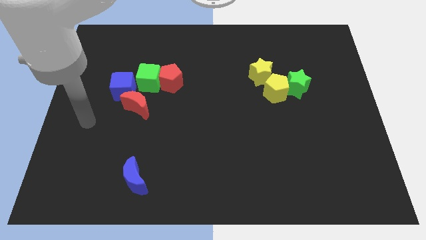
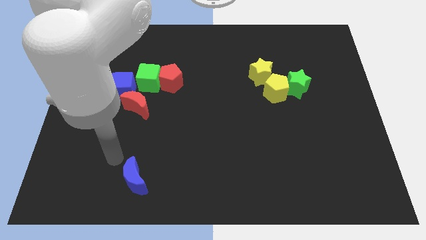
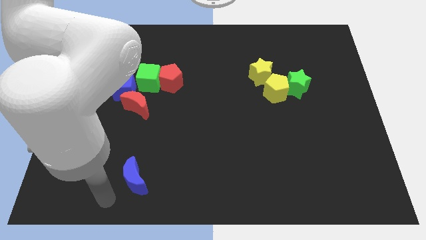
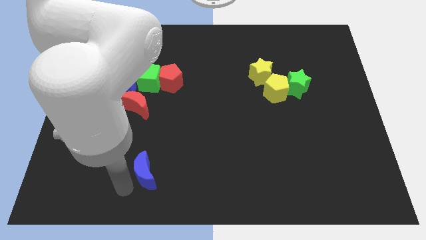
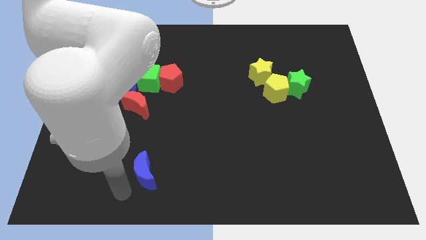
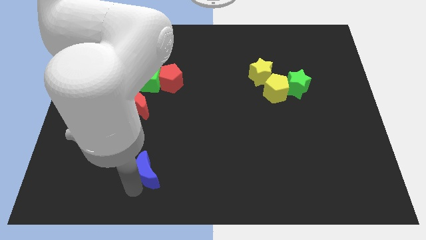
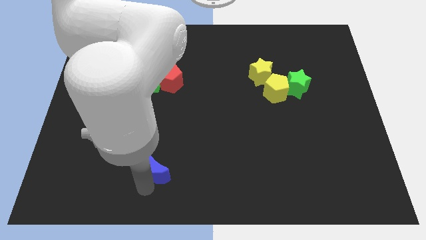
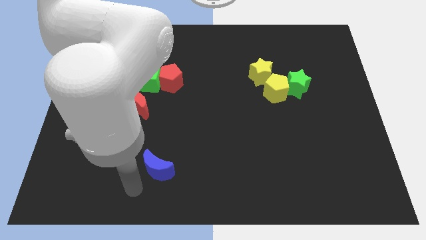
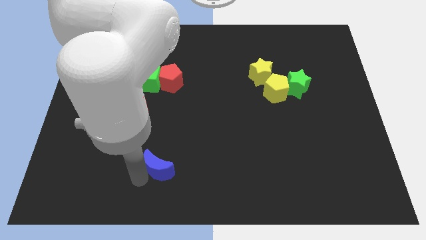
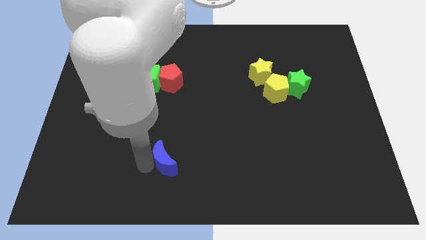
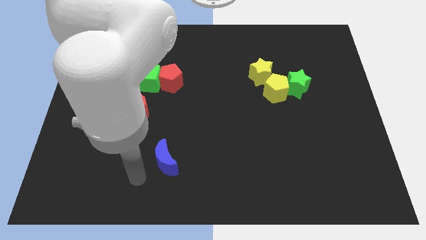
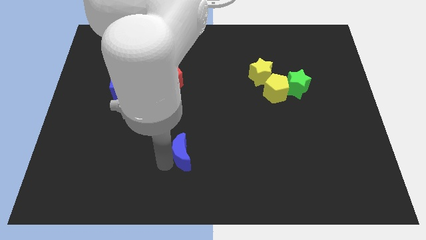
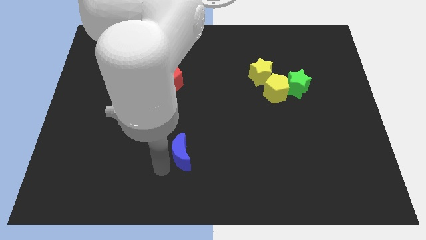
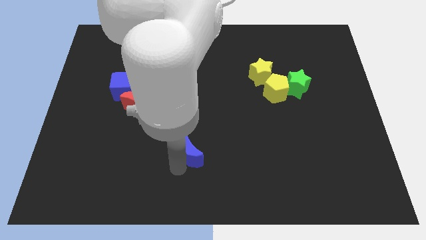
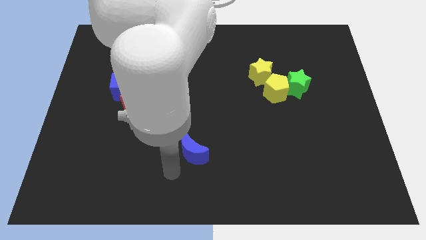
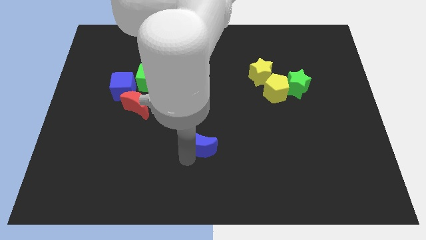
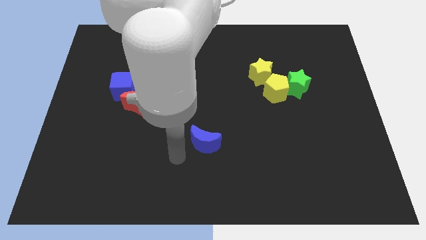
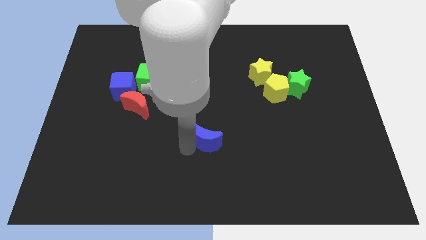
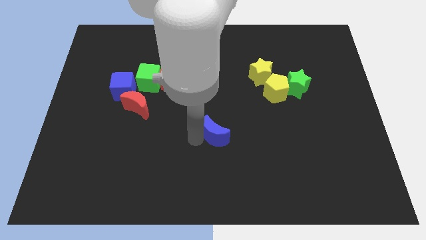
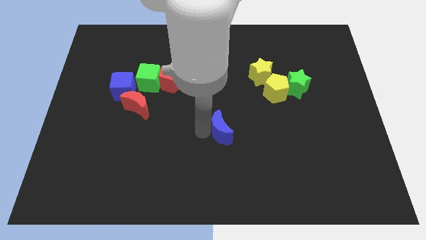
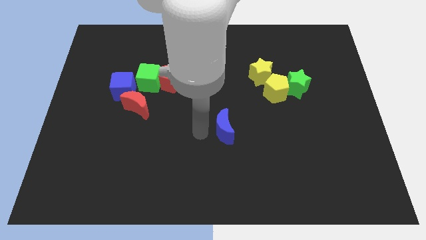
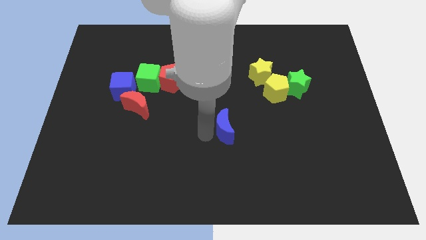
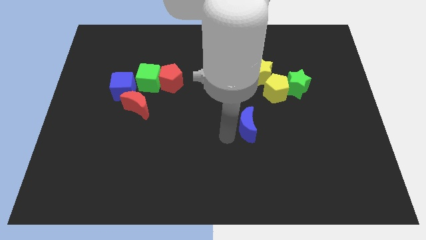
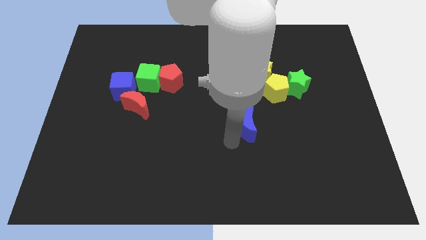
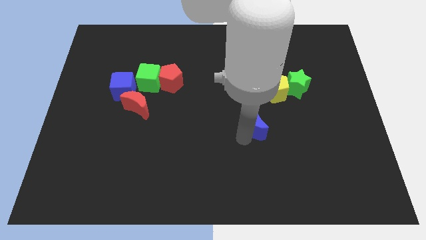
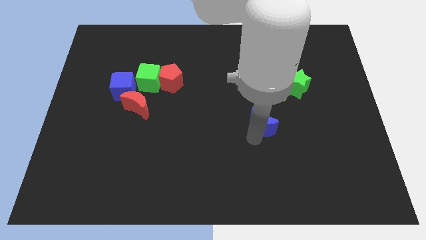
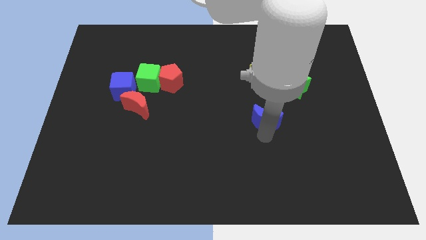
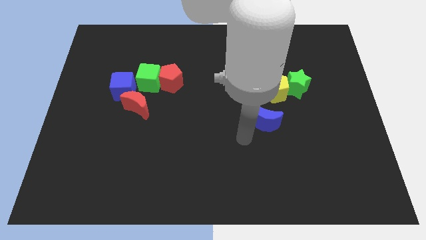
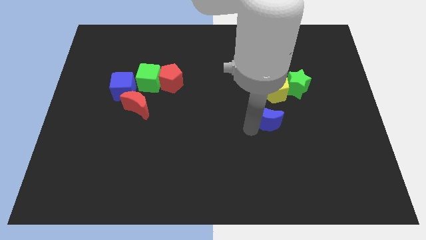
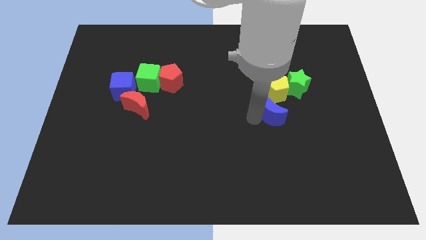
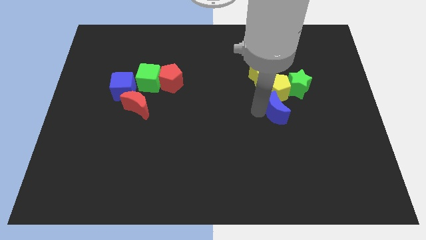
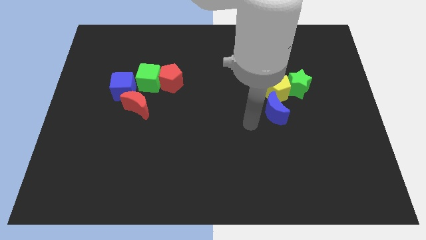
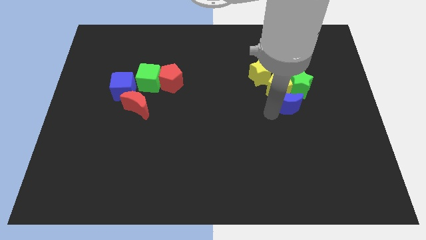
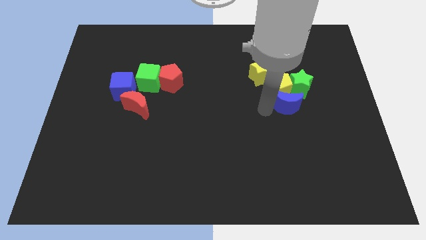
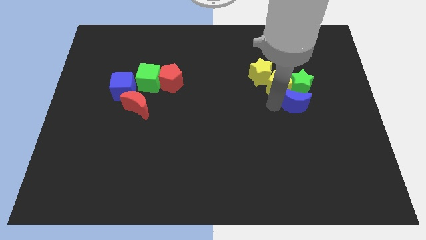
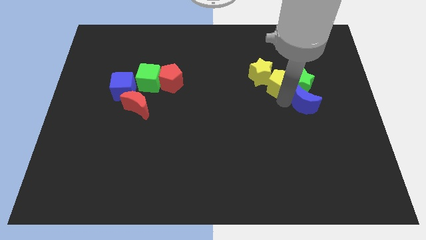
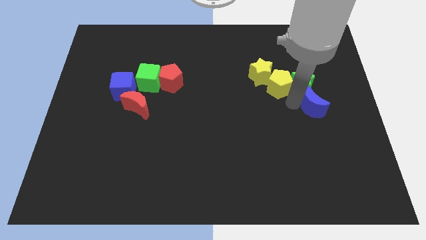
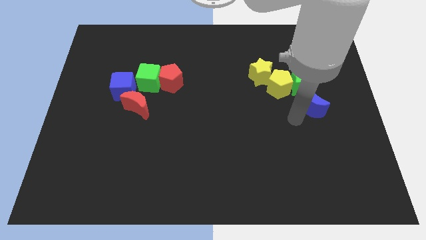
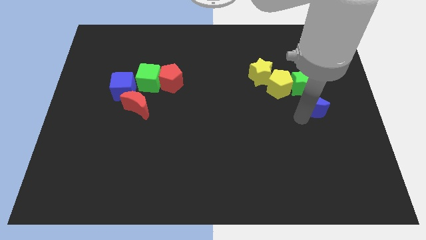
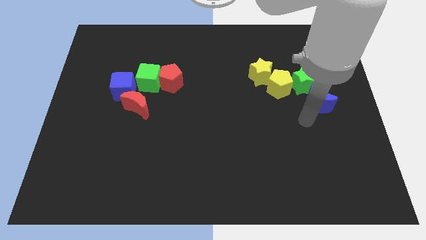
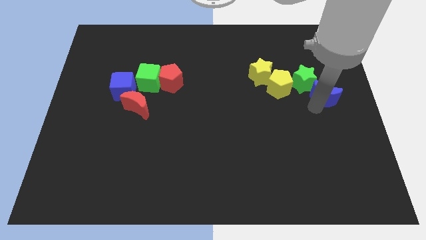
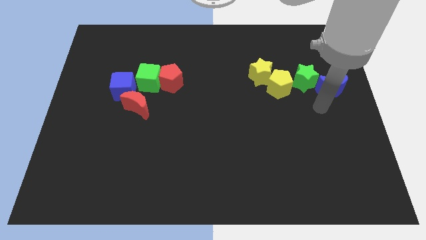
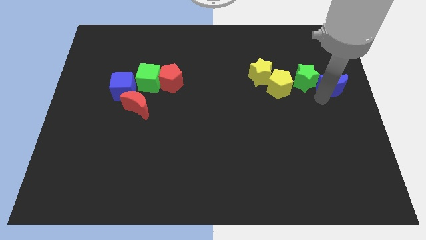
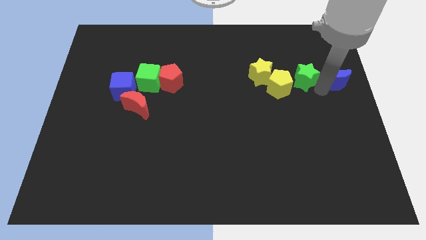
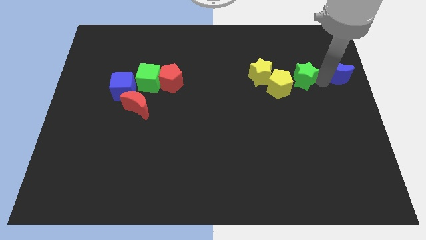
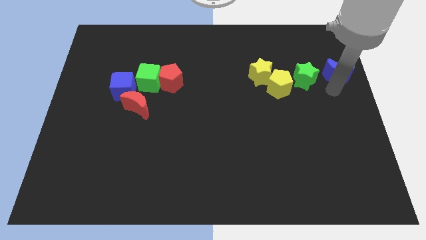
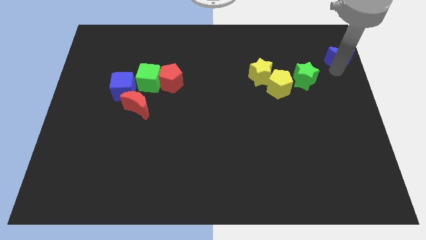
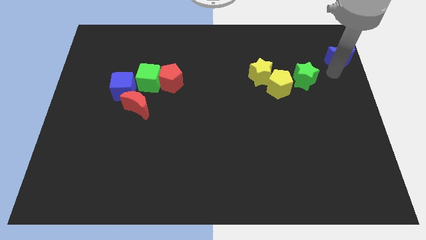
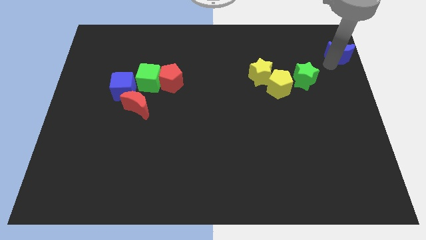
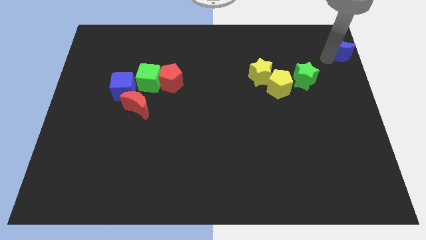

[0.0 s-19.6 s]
move the blue moon to the upper right corner

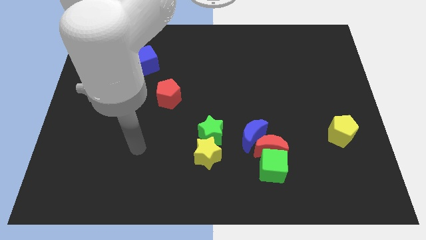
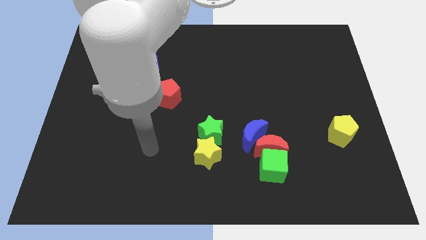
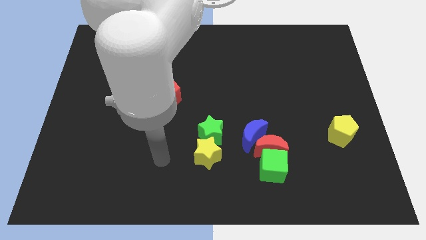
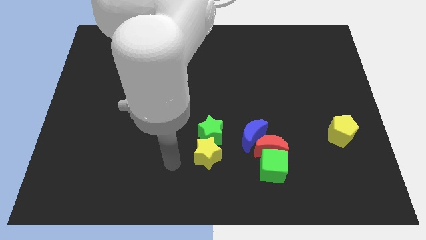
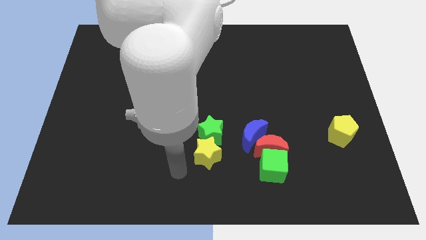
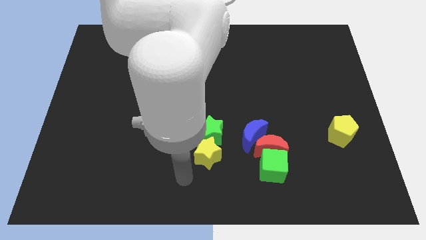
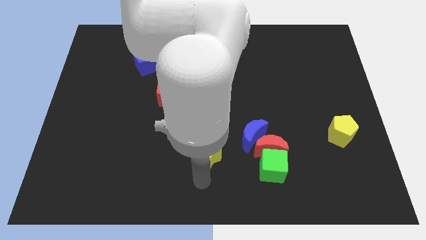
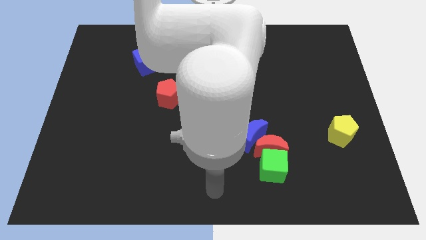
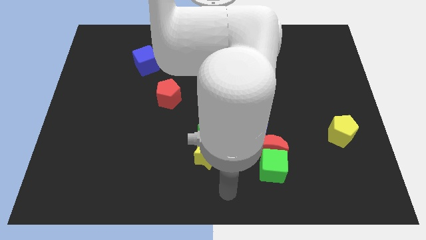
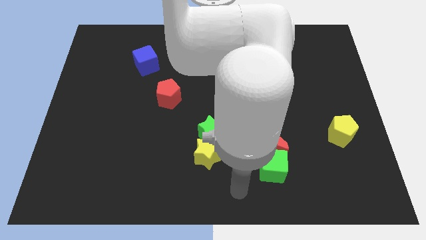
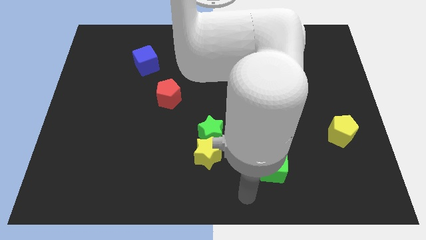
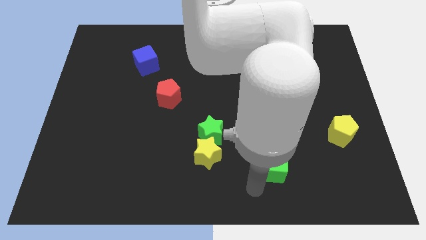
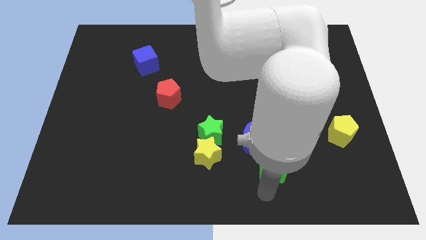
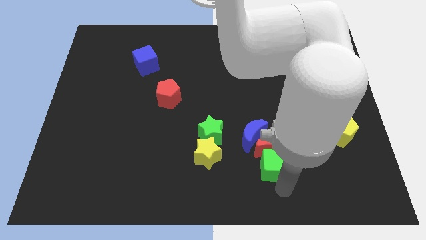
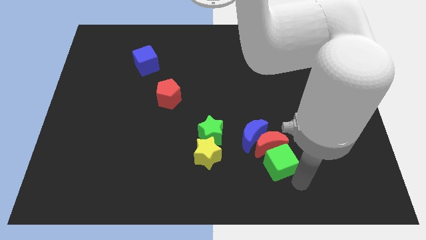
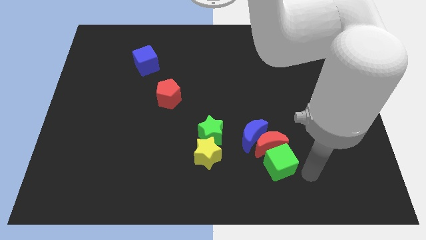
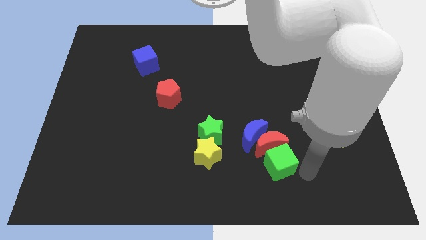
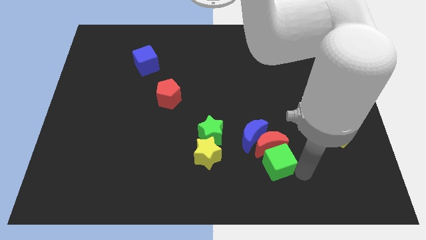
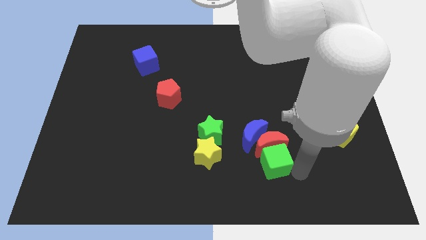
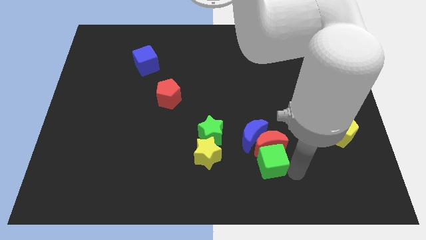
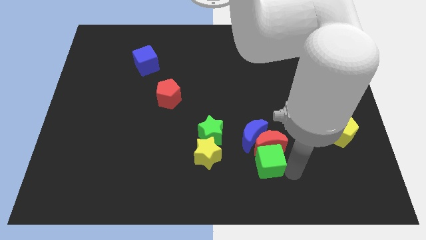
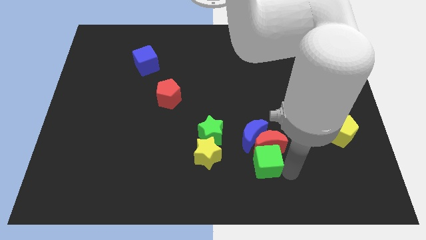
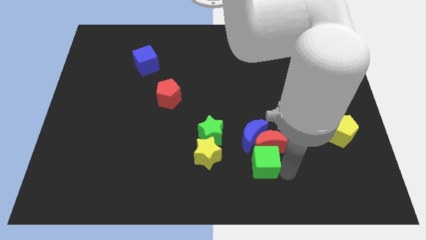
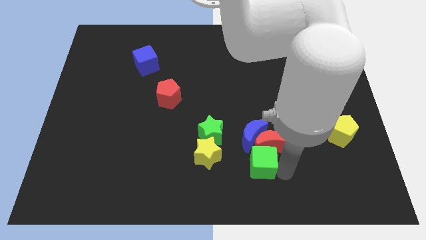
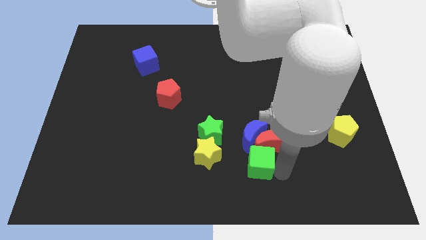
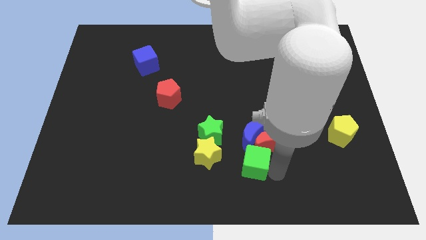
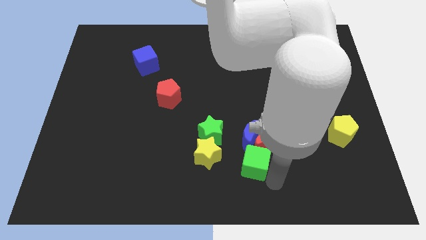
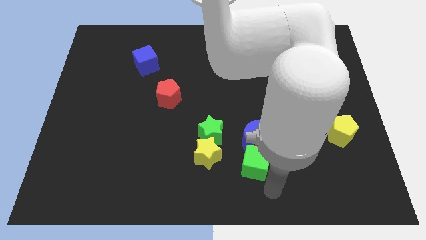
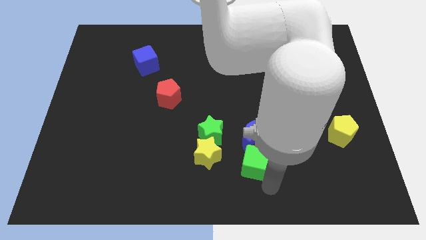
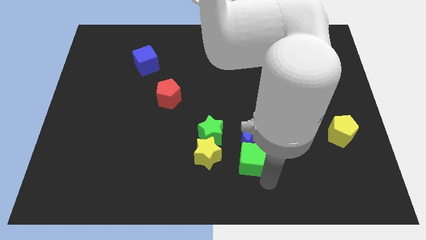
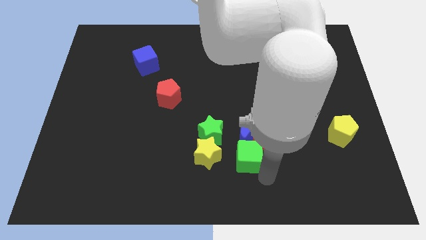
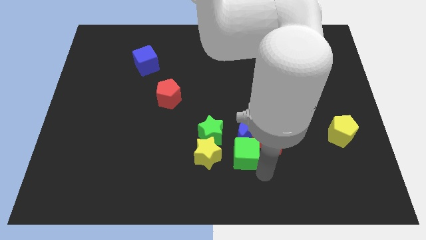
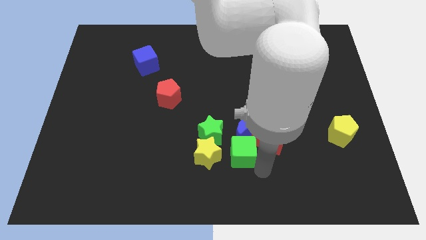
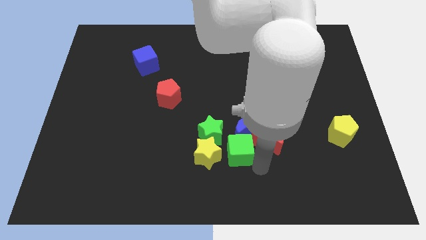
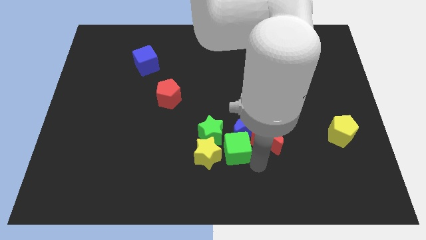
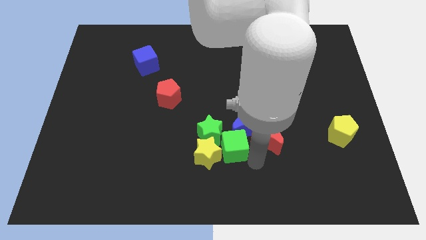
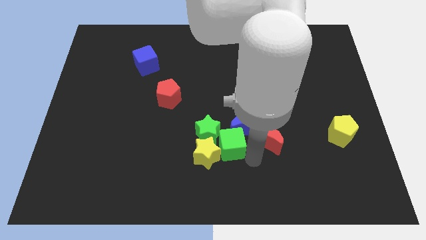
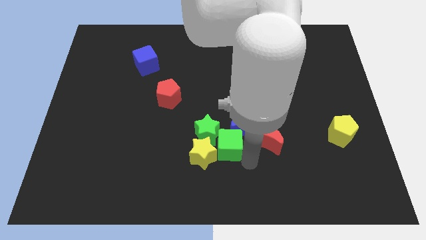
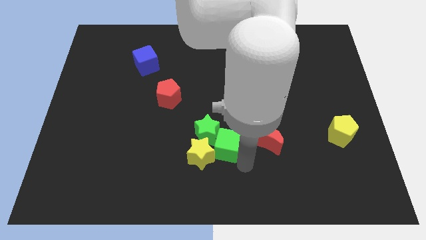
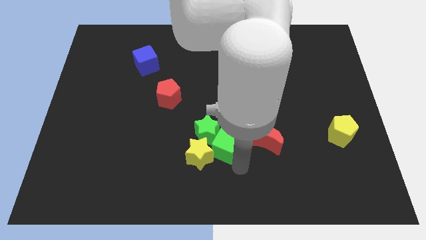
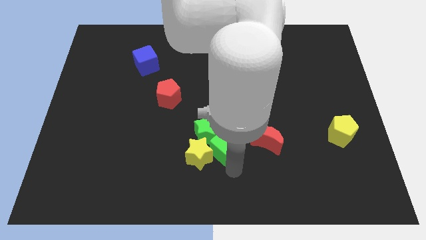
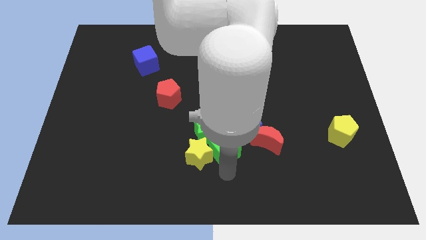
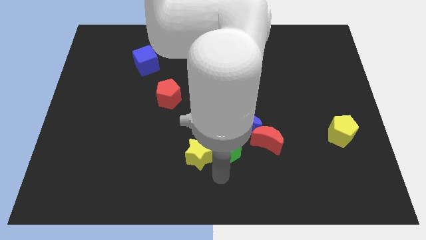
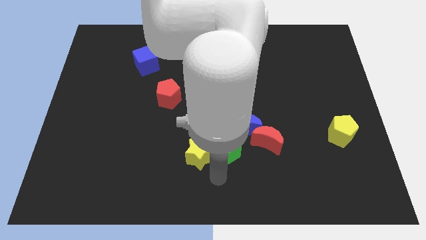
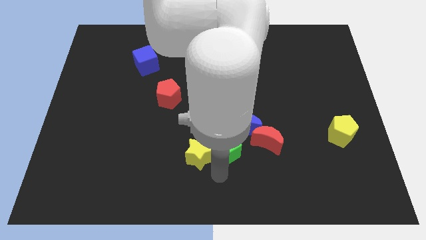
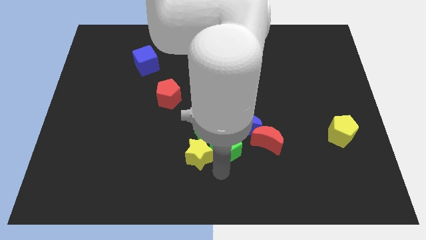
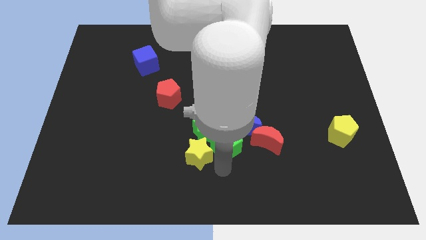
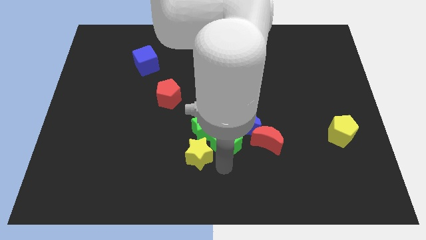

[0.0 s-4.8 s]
slide the green cube to the center
